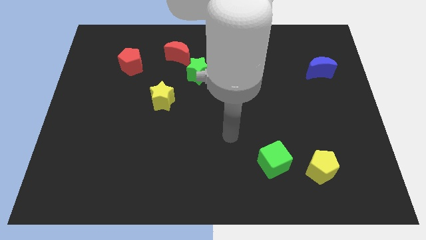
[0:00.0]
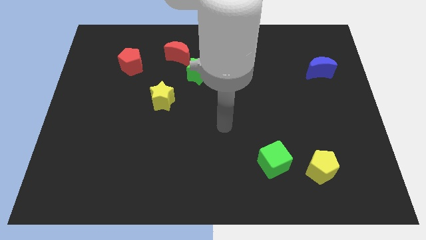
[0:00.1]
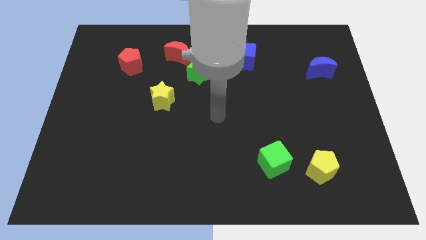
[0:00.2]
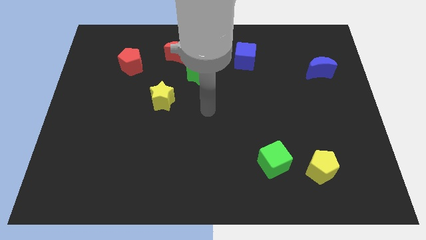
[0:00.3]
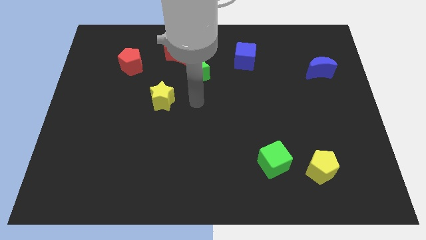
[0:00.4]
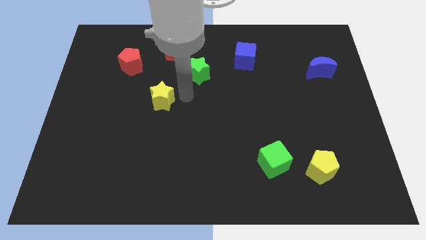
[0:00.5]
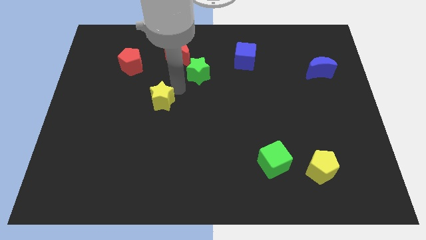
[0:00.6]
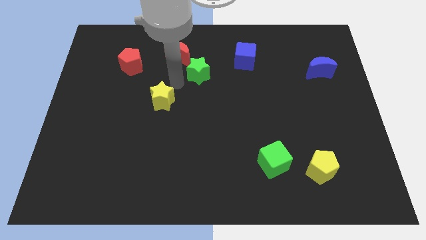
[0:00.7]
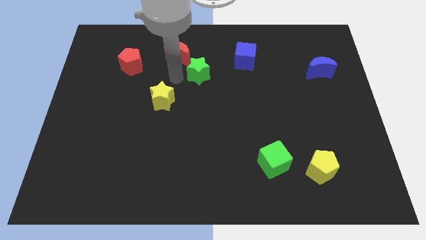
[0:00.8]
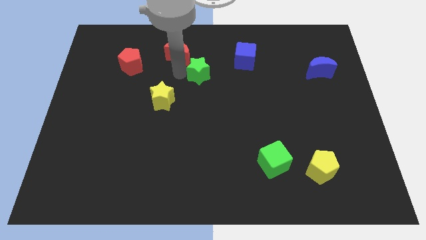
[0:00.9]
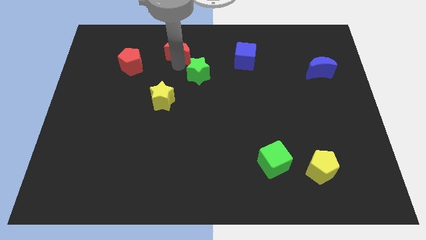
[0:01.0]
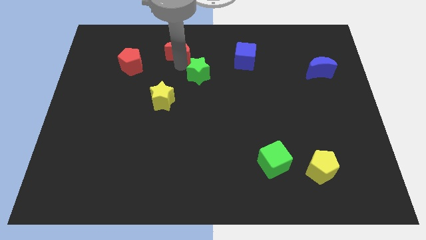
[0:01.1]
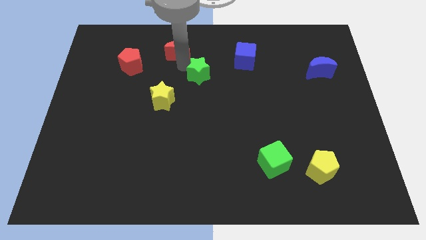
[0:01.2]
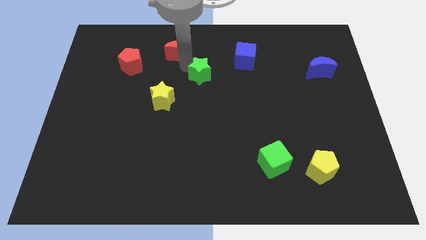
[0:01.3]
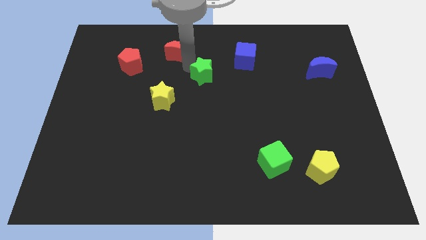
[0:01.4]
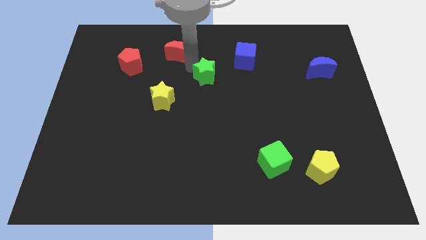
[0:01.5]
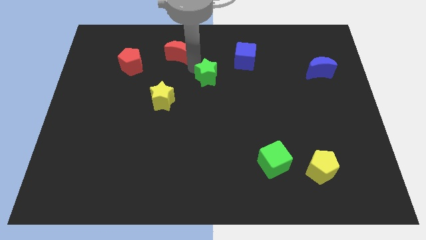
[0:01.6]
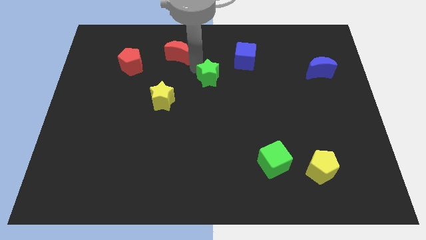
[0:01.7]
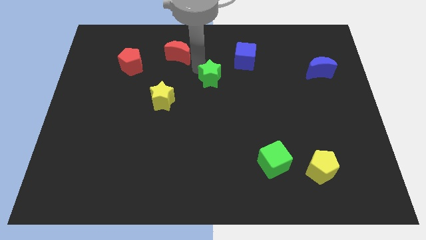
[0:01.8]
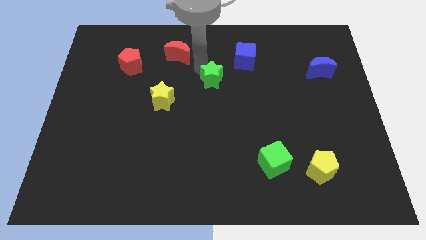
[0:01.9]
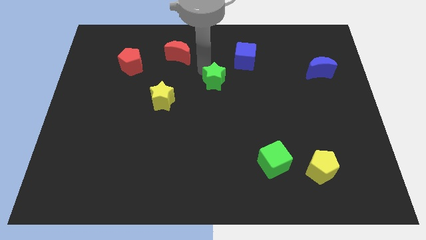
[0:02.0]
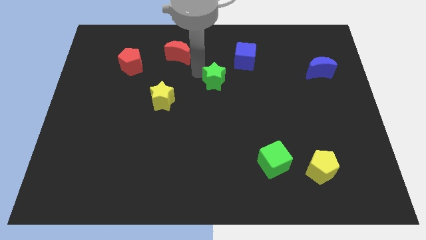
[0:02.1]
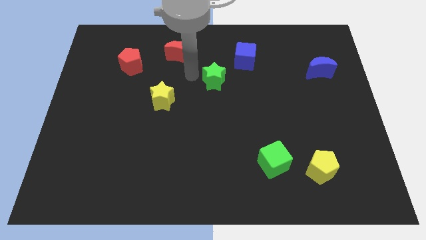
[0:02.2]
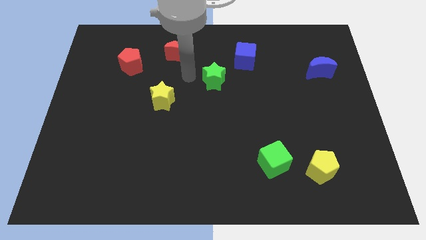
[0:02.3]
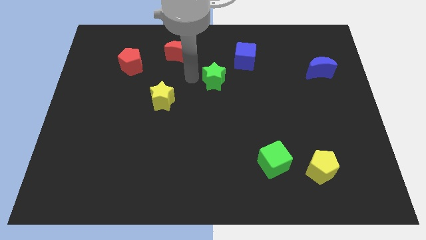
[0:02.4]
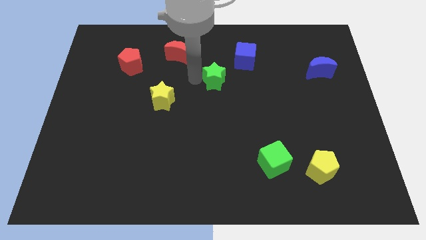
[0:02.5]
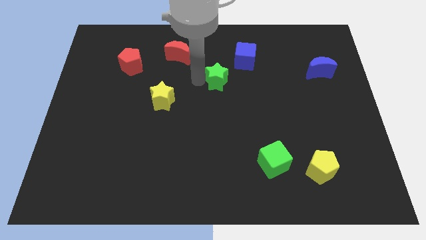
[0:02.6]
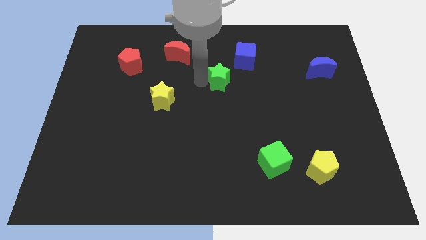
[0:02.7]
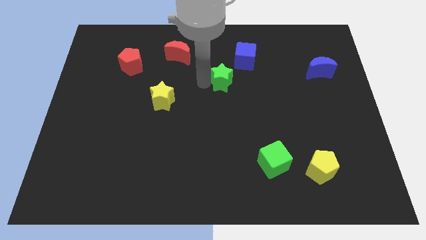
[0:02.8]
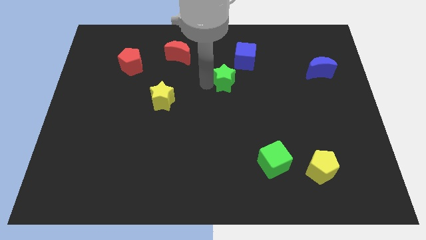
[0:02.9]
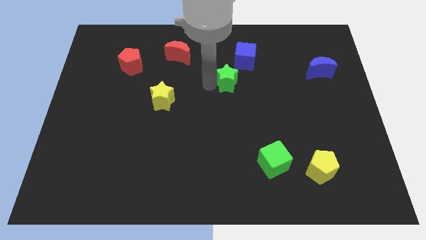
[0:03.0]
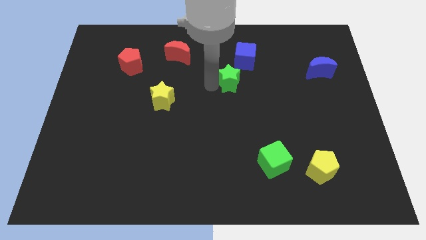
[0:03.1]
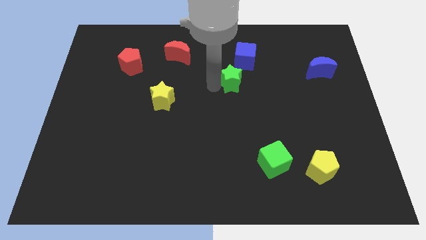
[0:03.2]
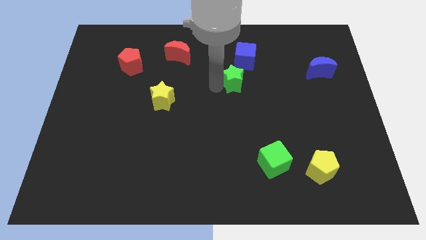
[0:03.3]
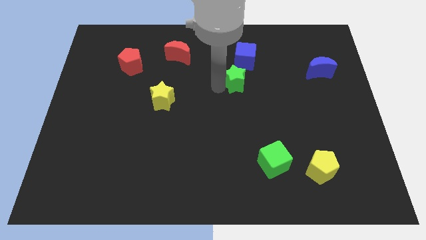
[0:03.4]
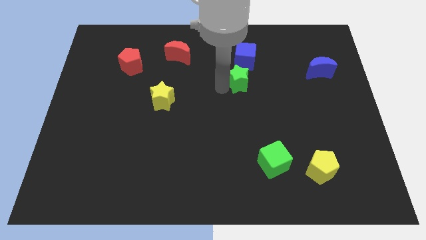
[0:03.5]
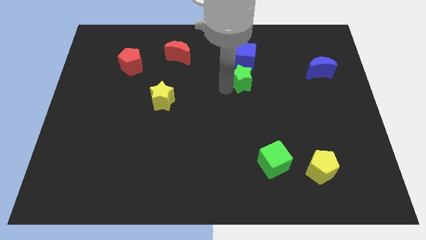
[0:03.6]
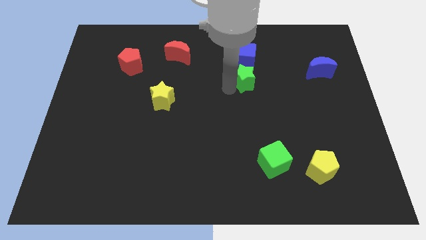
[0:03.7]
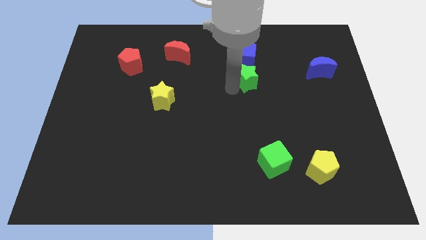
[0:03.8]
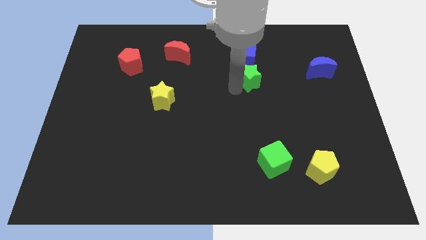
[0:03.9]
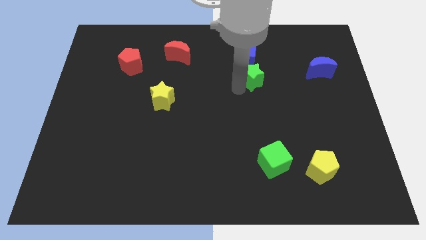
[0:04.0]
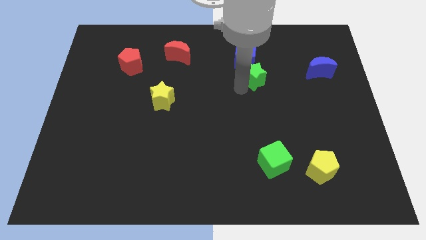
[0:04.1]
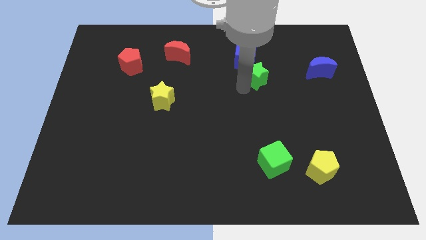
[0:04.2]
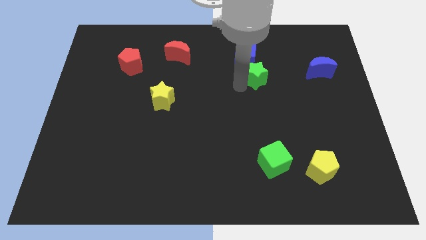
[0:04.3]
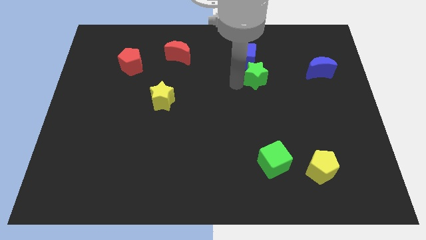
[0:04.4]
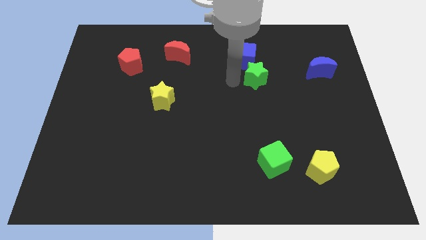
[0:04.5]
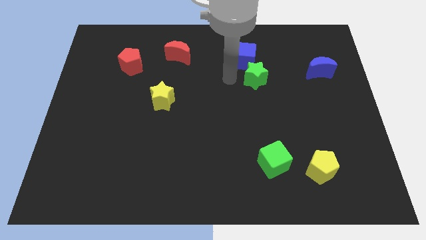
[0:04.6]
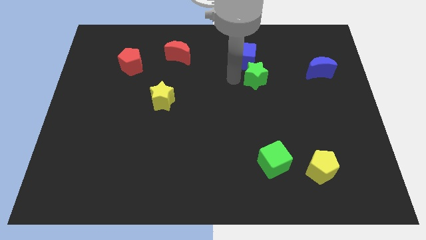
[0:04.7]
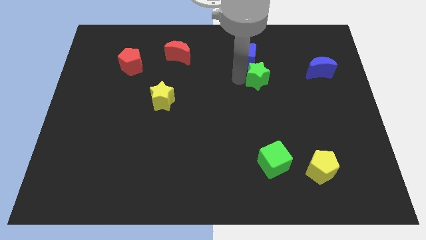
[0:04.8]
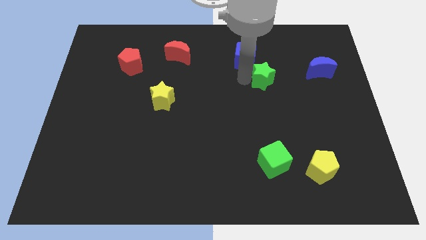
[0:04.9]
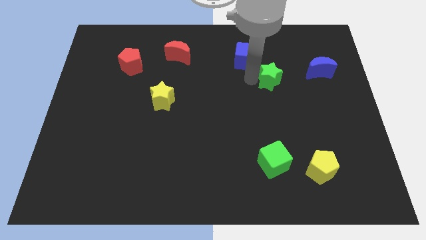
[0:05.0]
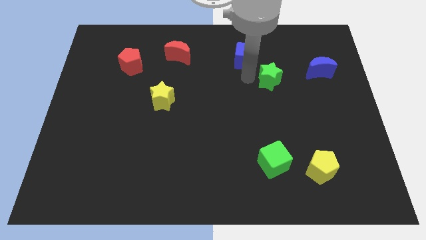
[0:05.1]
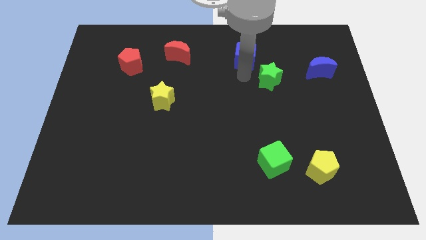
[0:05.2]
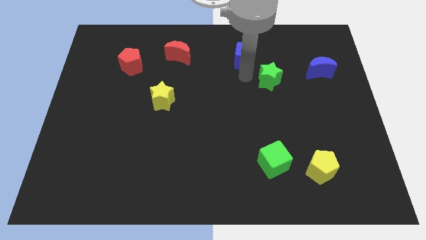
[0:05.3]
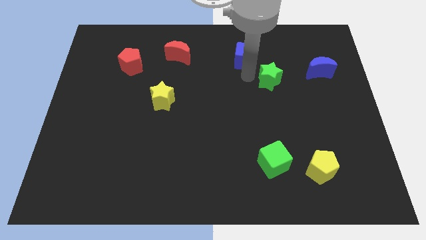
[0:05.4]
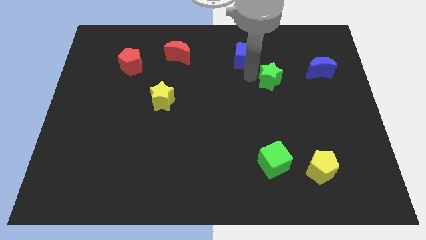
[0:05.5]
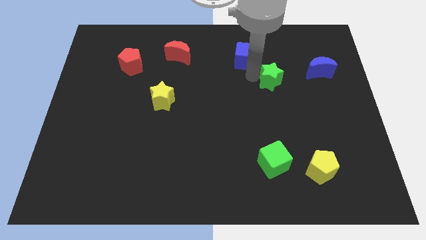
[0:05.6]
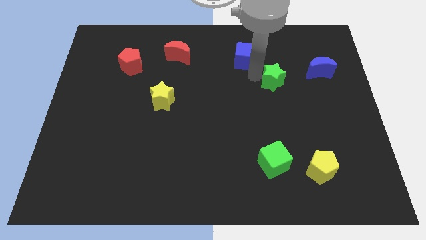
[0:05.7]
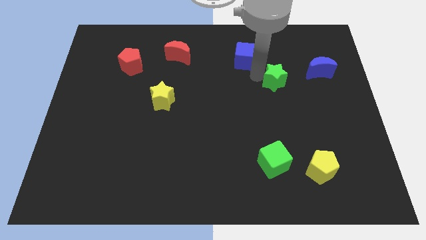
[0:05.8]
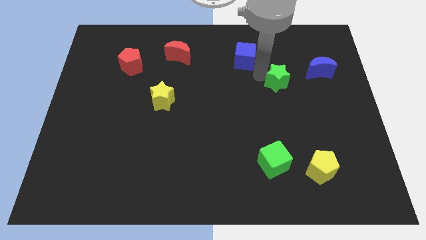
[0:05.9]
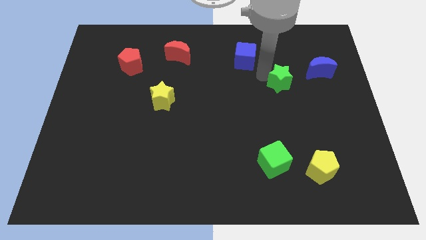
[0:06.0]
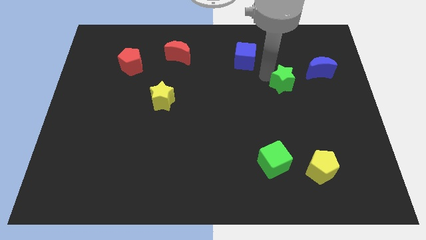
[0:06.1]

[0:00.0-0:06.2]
put the green star diagonally down and to the left of the blue moon
